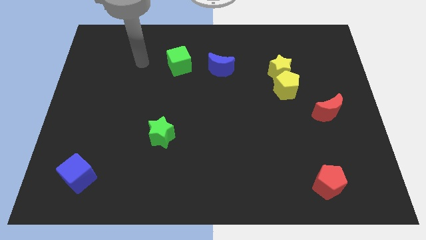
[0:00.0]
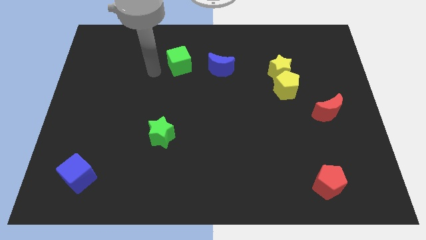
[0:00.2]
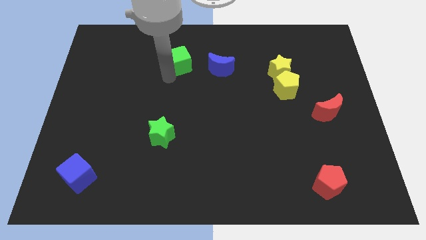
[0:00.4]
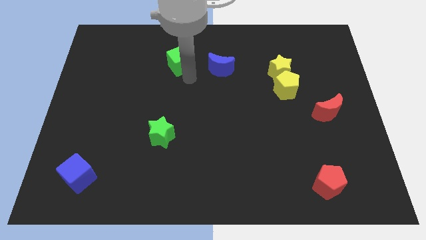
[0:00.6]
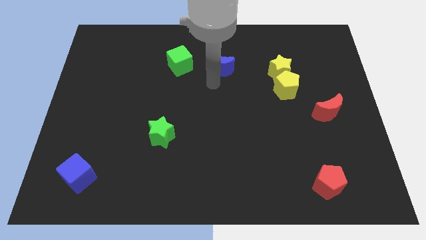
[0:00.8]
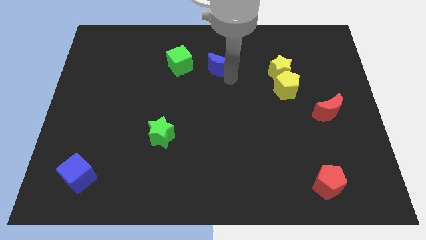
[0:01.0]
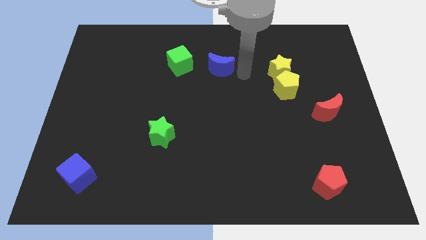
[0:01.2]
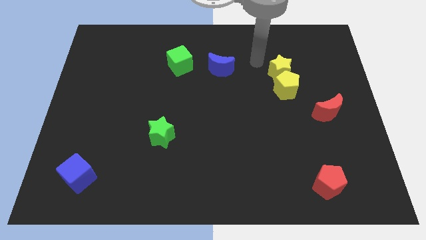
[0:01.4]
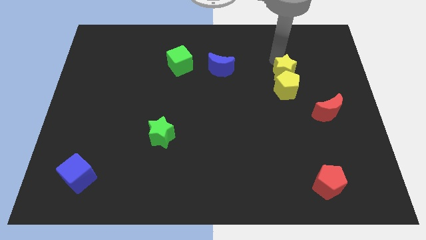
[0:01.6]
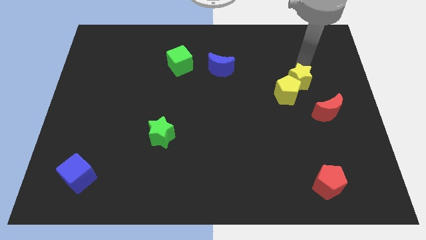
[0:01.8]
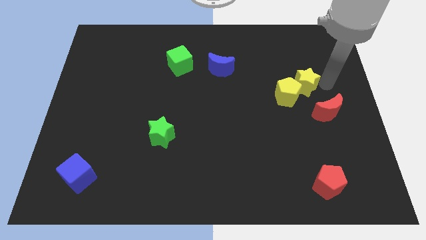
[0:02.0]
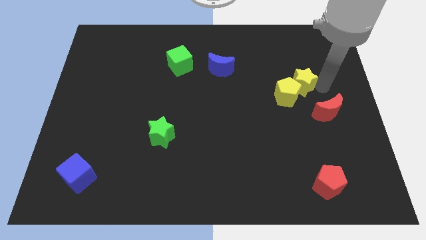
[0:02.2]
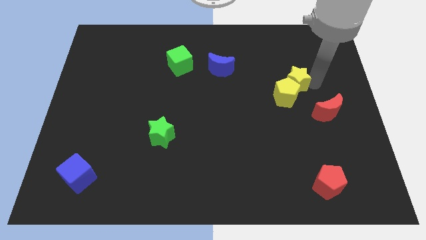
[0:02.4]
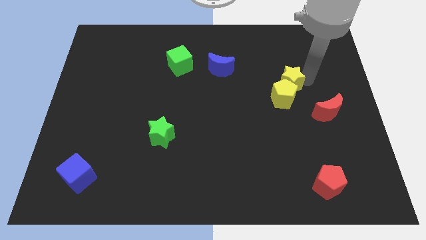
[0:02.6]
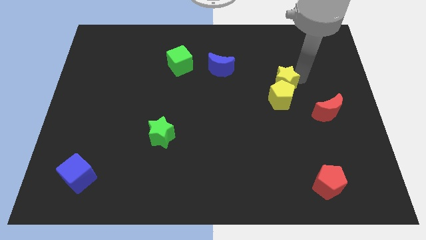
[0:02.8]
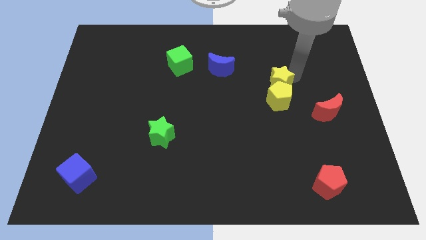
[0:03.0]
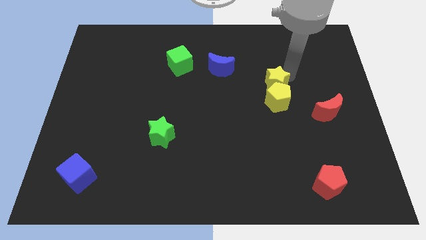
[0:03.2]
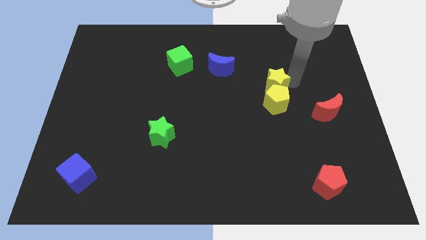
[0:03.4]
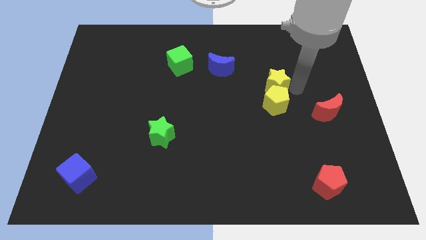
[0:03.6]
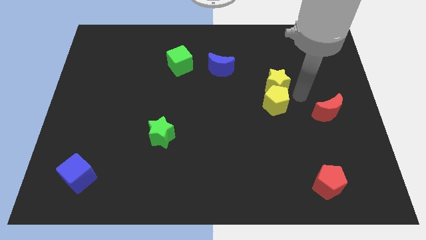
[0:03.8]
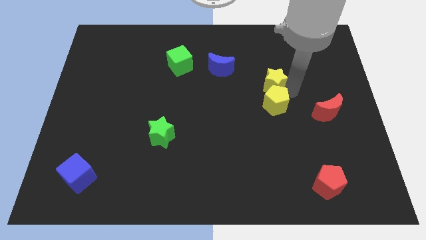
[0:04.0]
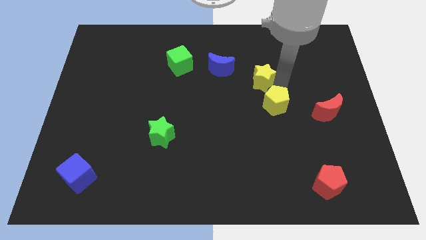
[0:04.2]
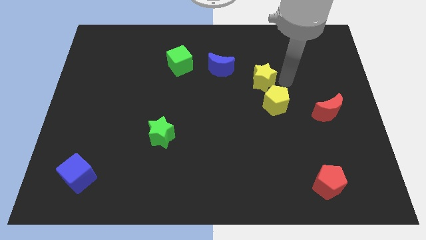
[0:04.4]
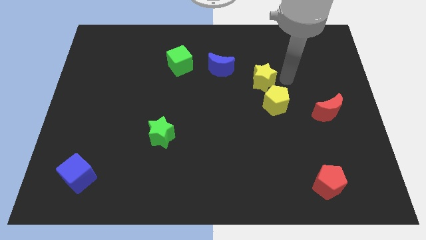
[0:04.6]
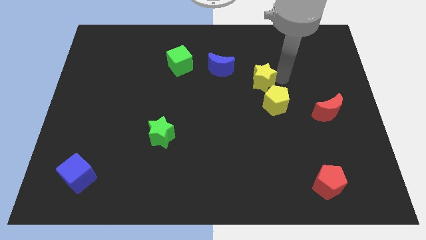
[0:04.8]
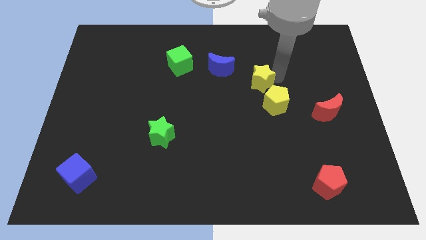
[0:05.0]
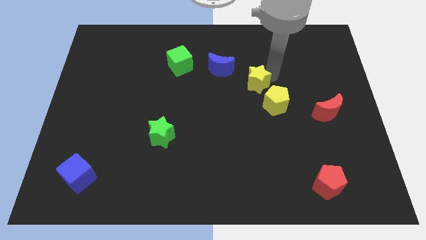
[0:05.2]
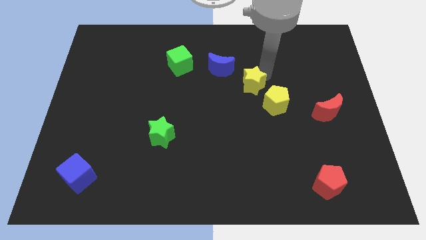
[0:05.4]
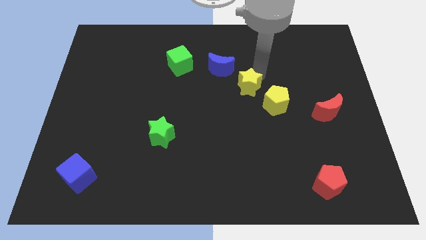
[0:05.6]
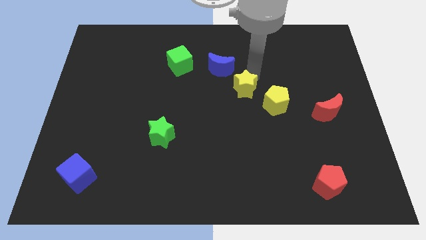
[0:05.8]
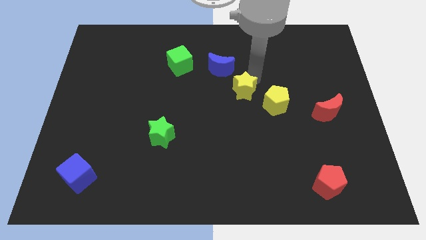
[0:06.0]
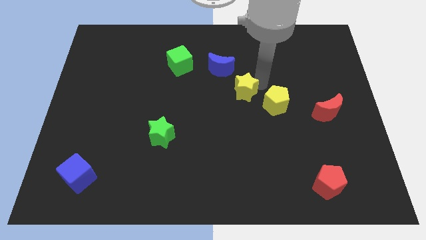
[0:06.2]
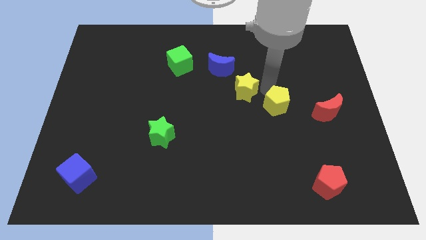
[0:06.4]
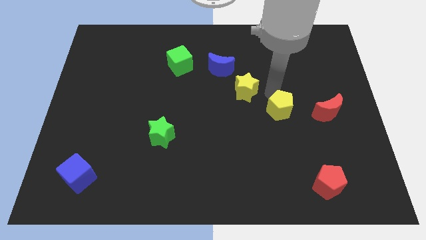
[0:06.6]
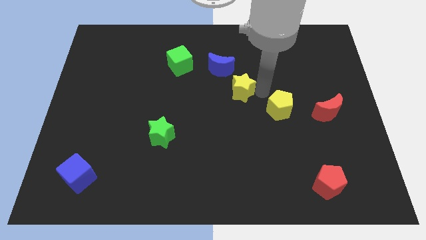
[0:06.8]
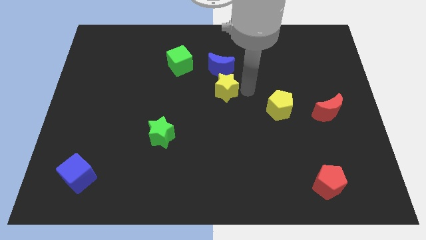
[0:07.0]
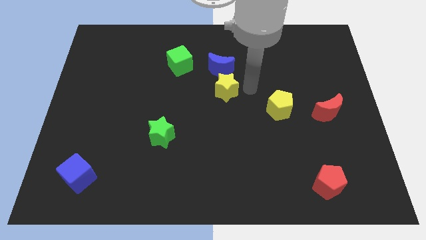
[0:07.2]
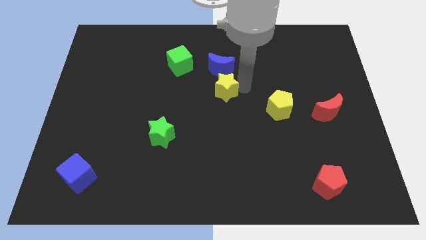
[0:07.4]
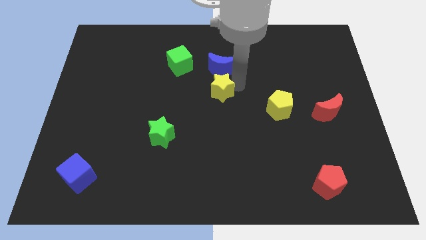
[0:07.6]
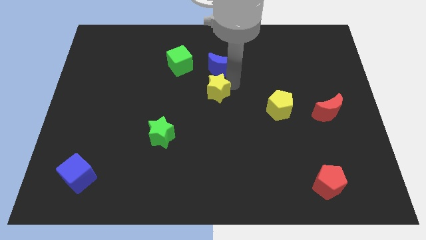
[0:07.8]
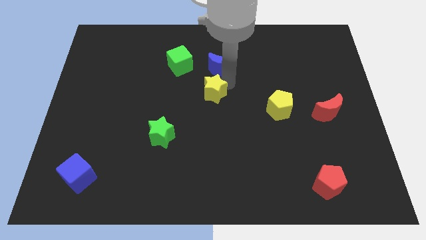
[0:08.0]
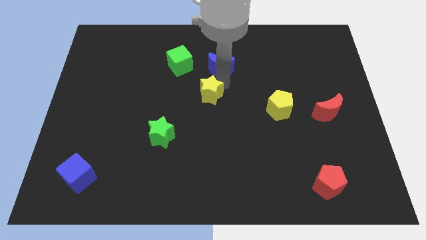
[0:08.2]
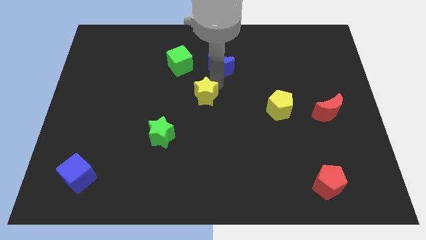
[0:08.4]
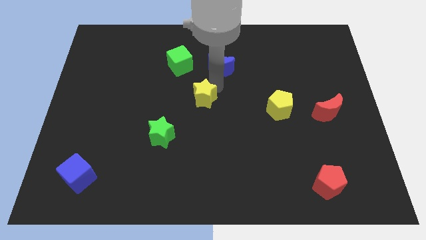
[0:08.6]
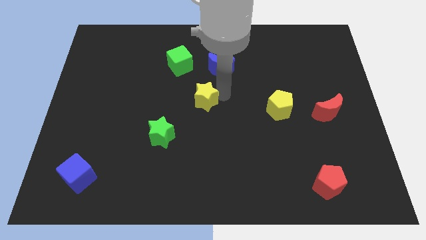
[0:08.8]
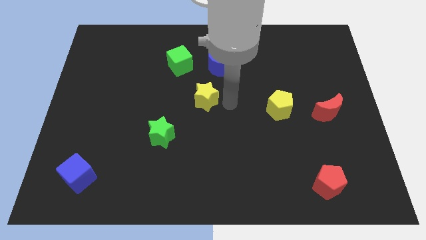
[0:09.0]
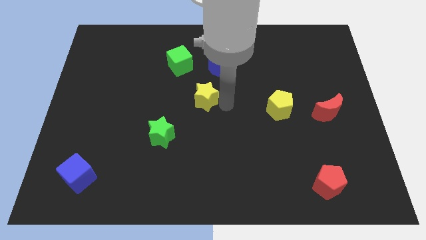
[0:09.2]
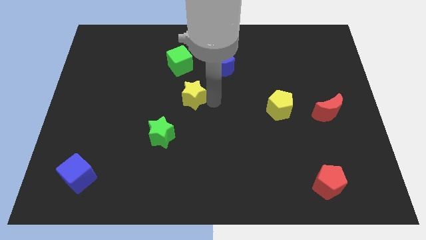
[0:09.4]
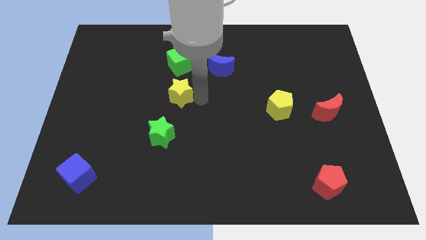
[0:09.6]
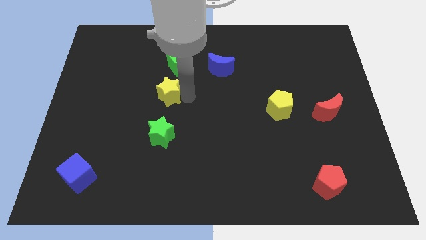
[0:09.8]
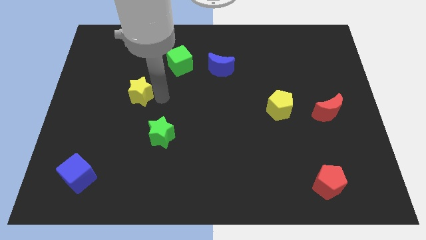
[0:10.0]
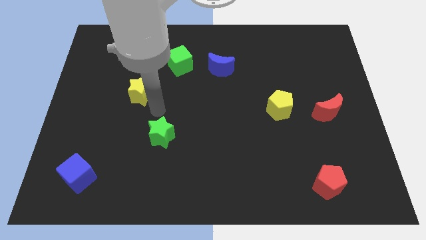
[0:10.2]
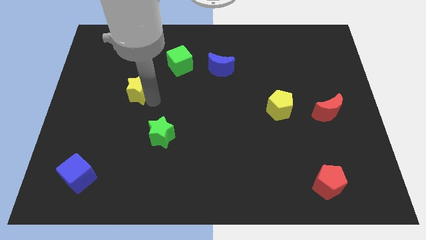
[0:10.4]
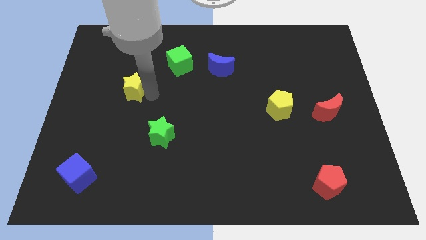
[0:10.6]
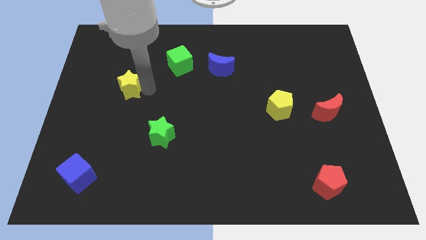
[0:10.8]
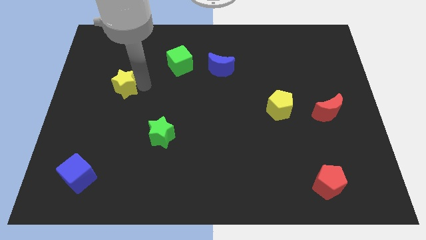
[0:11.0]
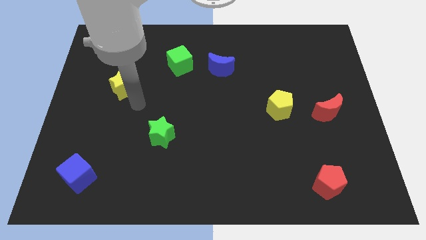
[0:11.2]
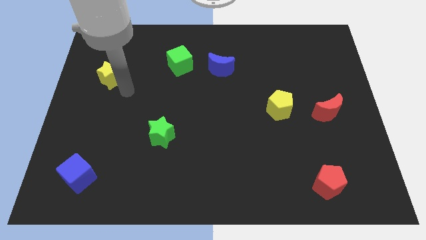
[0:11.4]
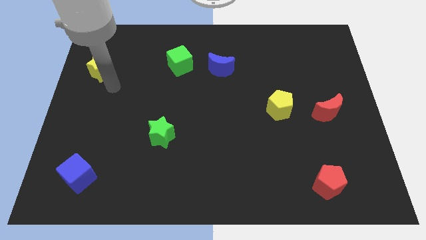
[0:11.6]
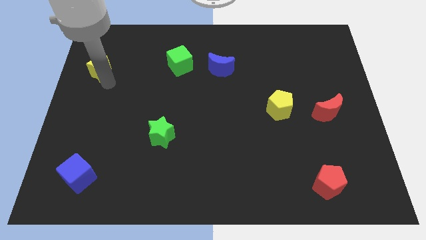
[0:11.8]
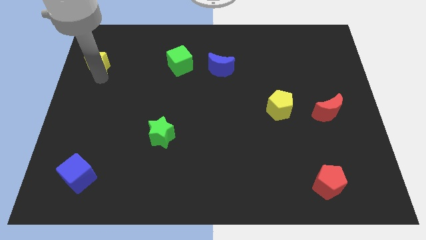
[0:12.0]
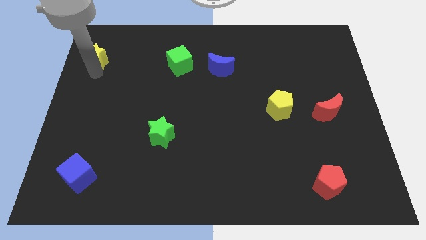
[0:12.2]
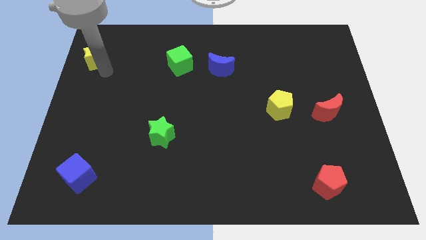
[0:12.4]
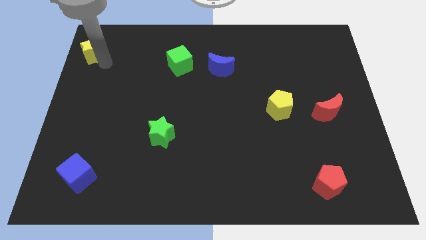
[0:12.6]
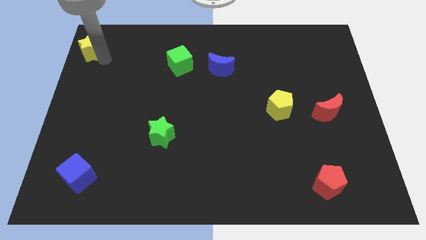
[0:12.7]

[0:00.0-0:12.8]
slide the yellow star to the top left corner

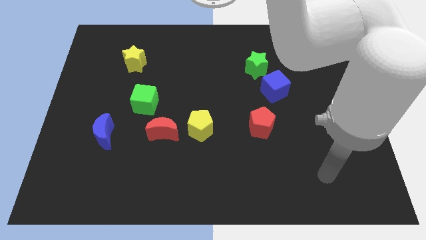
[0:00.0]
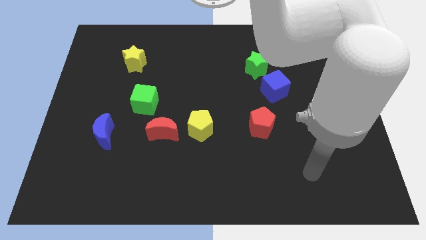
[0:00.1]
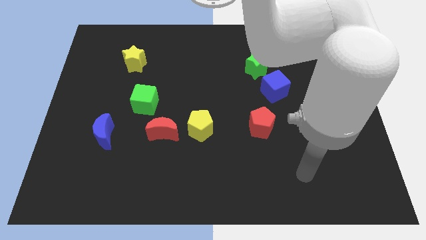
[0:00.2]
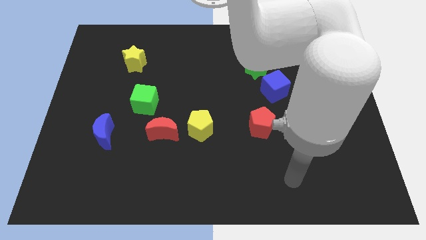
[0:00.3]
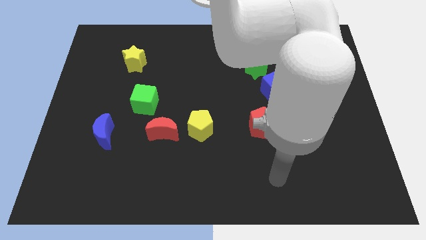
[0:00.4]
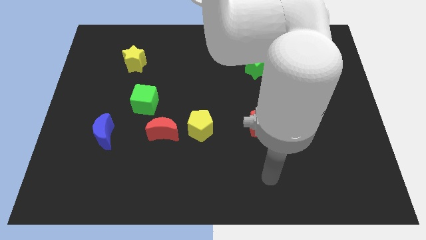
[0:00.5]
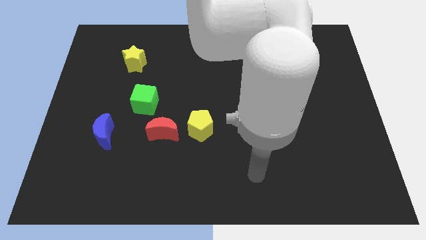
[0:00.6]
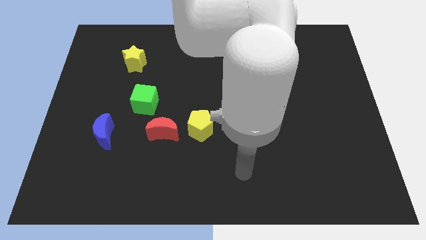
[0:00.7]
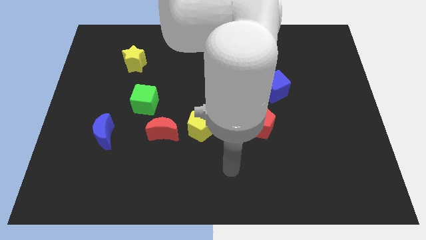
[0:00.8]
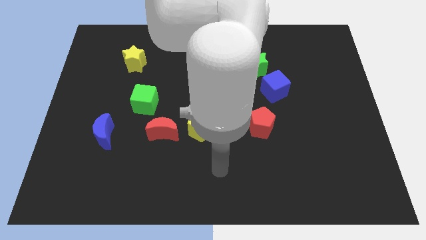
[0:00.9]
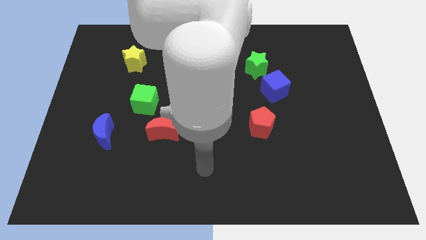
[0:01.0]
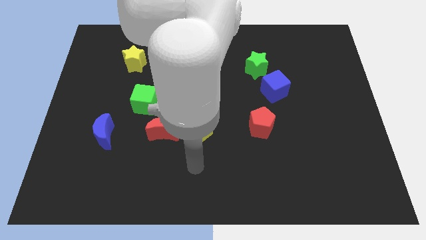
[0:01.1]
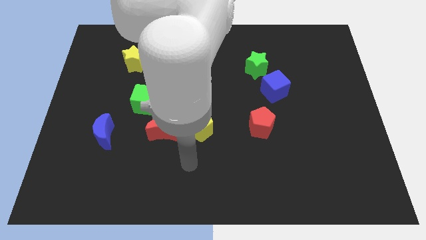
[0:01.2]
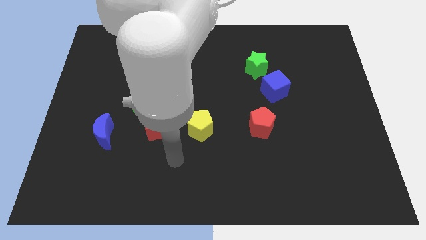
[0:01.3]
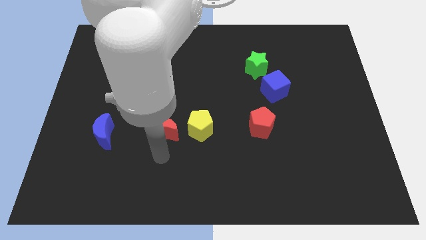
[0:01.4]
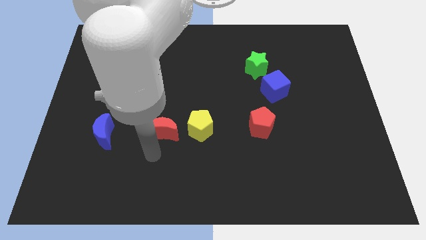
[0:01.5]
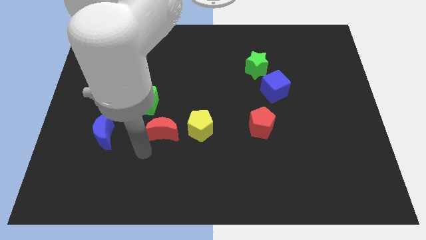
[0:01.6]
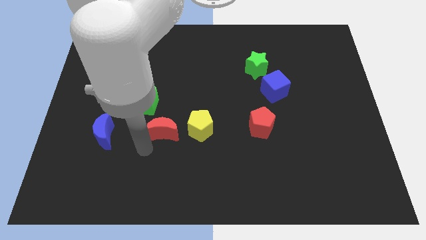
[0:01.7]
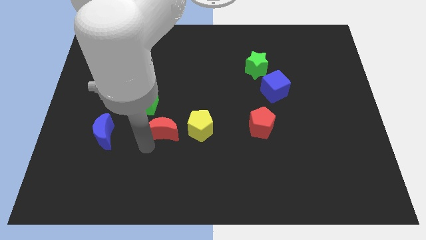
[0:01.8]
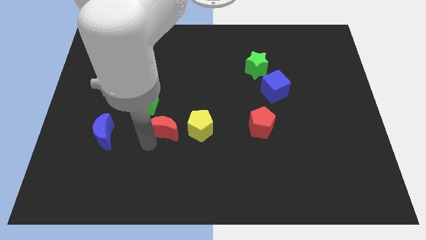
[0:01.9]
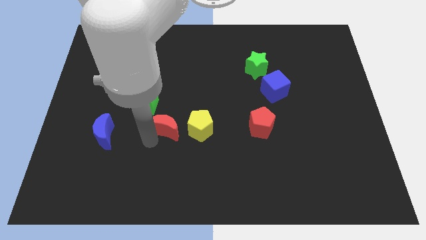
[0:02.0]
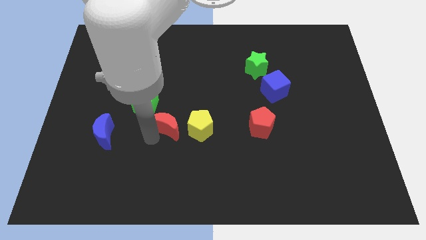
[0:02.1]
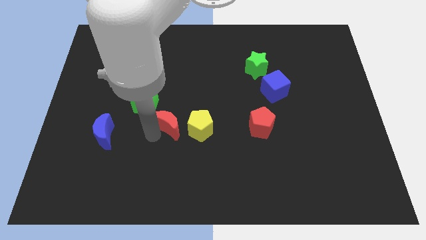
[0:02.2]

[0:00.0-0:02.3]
move the red moon to the center
